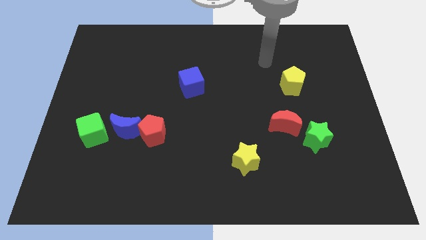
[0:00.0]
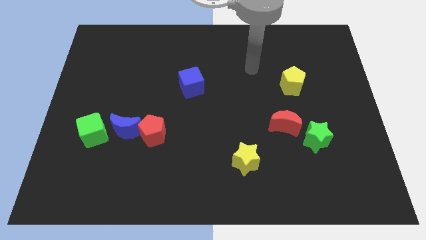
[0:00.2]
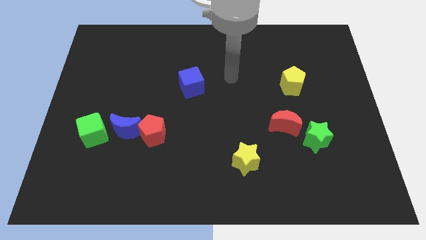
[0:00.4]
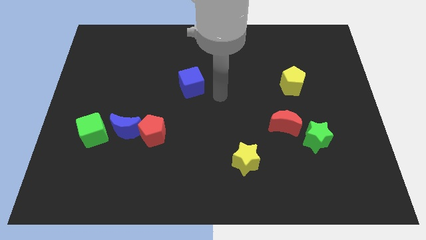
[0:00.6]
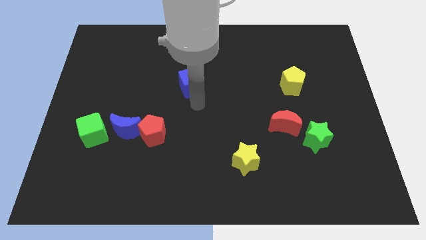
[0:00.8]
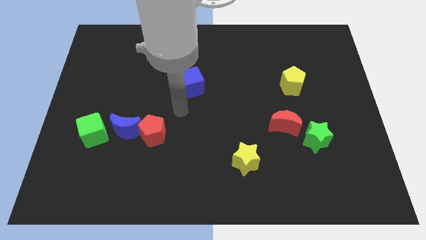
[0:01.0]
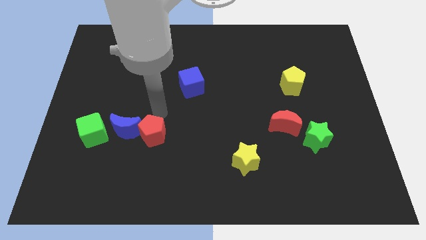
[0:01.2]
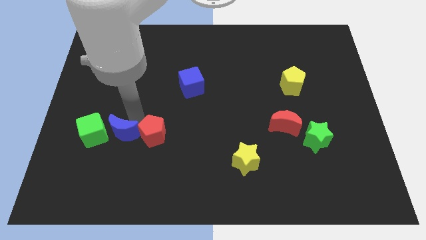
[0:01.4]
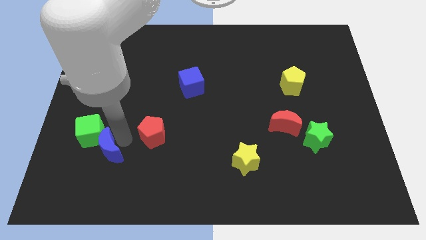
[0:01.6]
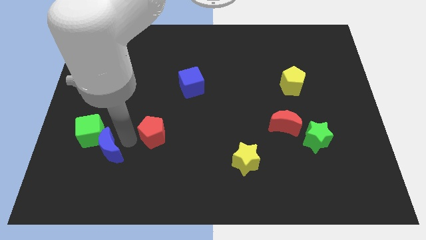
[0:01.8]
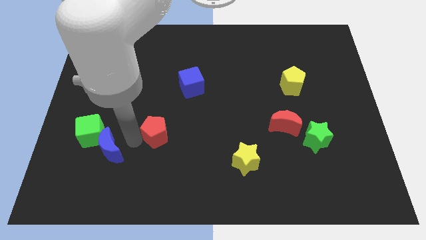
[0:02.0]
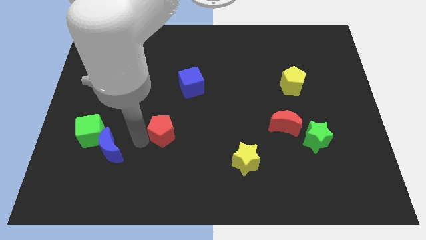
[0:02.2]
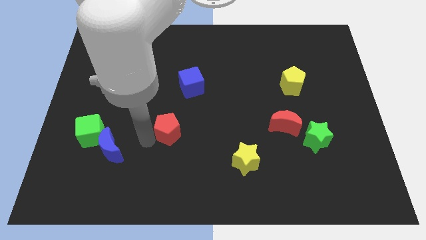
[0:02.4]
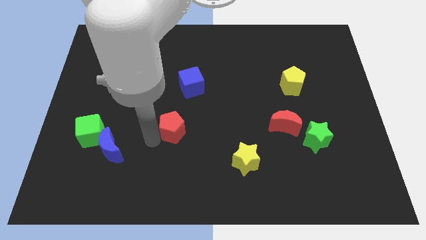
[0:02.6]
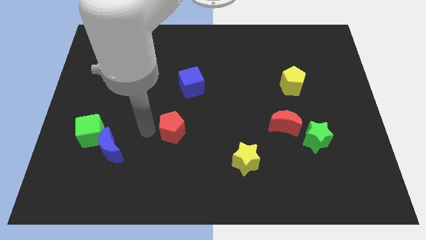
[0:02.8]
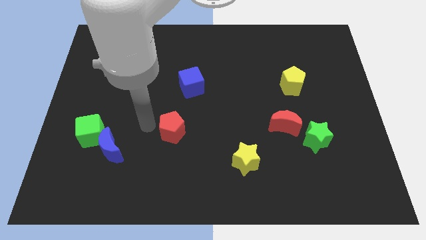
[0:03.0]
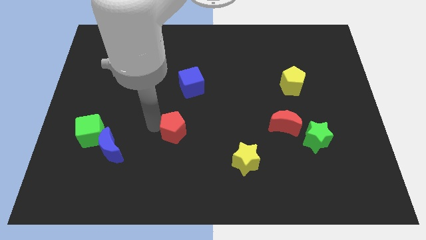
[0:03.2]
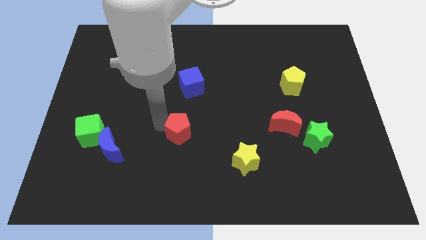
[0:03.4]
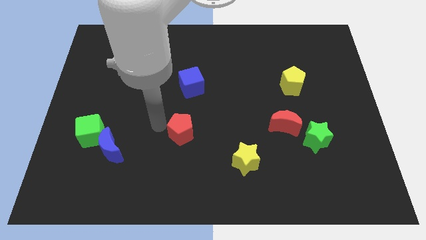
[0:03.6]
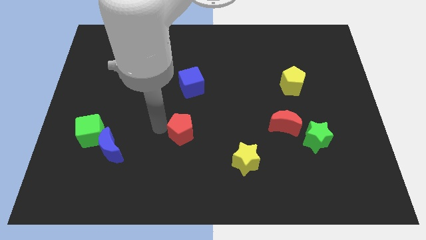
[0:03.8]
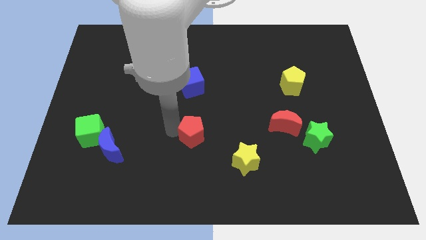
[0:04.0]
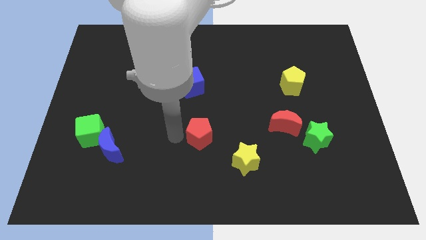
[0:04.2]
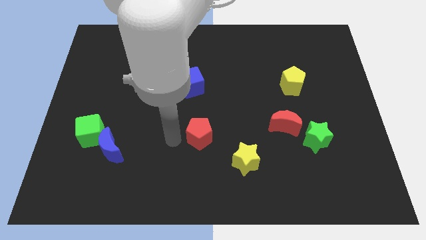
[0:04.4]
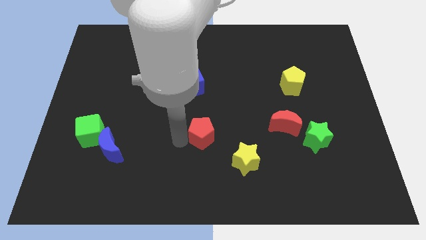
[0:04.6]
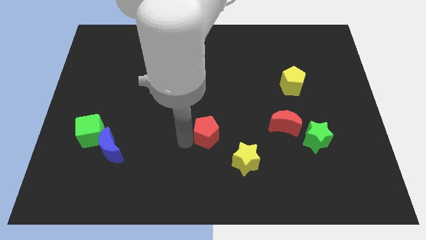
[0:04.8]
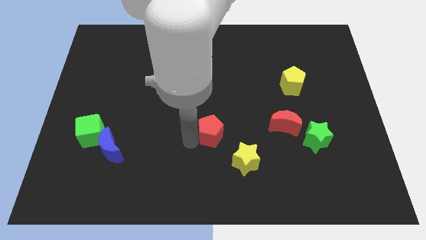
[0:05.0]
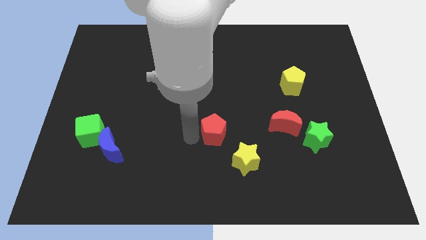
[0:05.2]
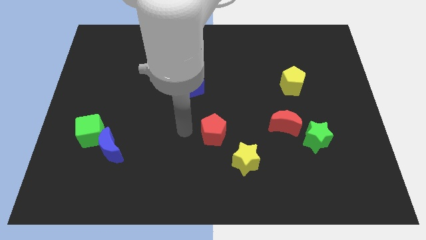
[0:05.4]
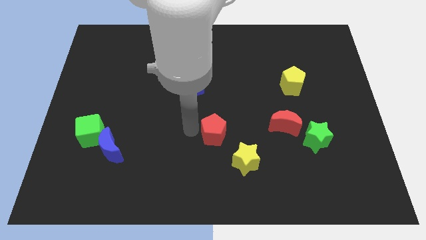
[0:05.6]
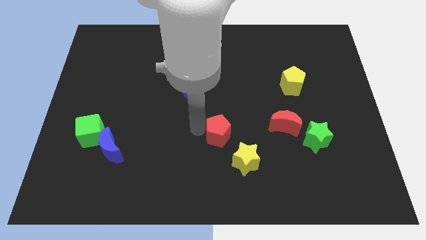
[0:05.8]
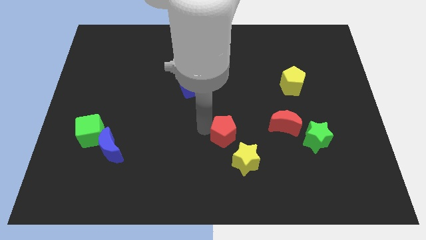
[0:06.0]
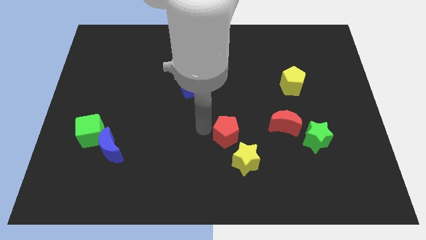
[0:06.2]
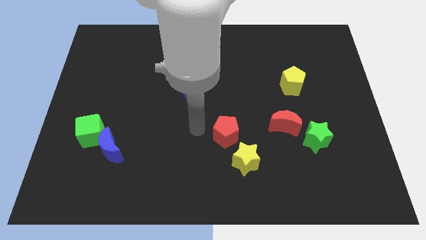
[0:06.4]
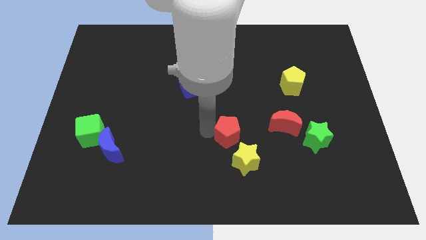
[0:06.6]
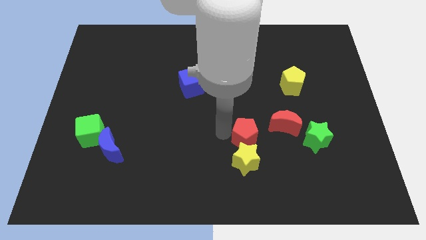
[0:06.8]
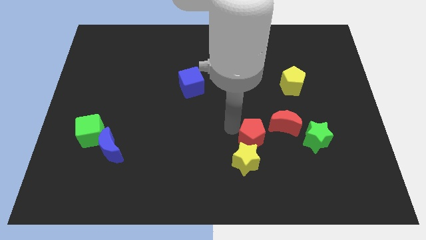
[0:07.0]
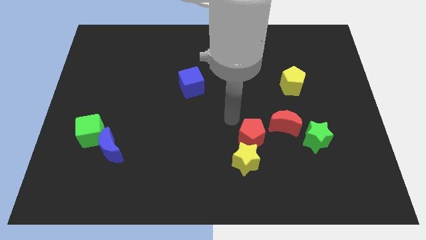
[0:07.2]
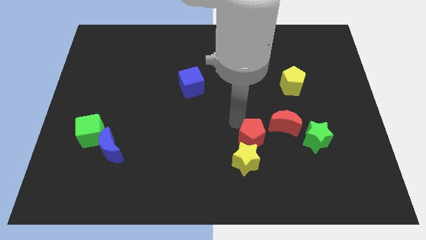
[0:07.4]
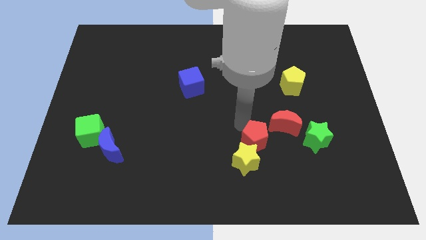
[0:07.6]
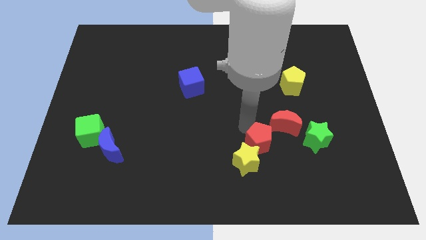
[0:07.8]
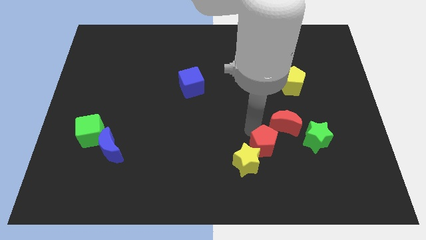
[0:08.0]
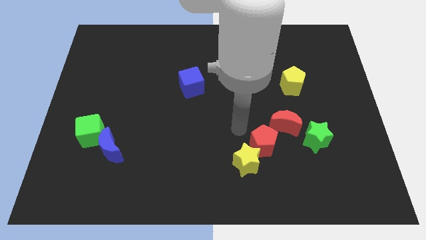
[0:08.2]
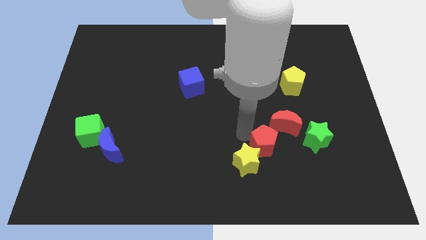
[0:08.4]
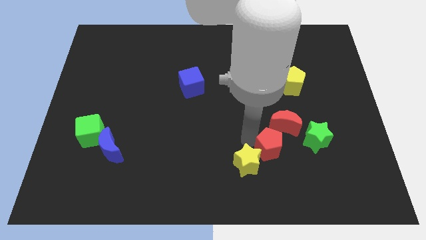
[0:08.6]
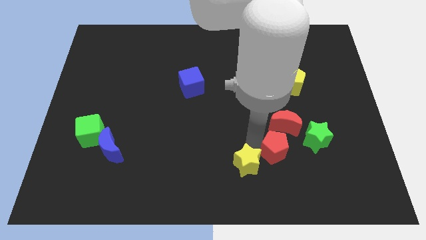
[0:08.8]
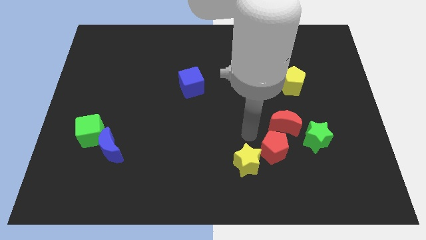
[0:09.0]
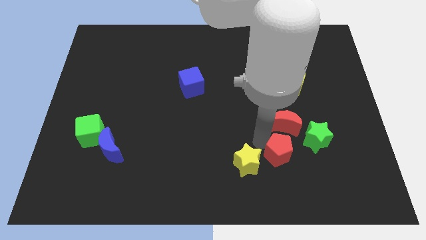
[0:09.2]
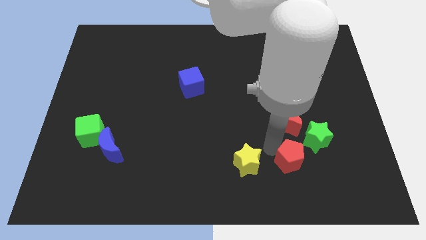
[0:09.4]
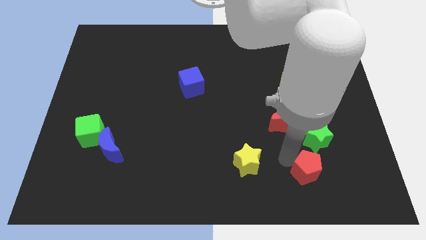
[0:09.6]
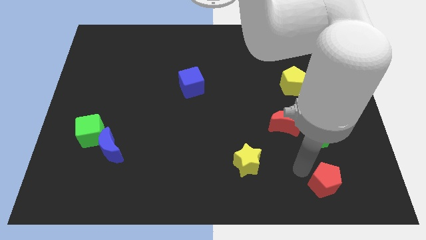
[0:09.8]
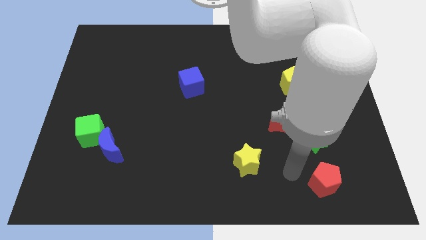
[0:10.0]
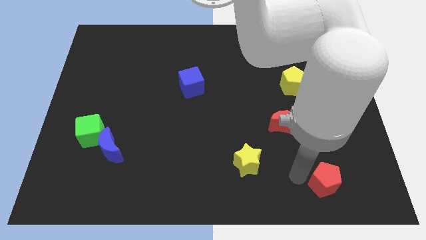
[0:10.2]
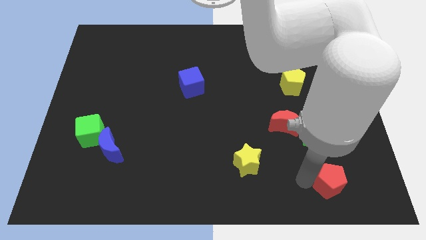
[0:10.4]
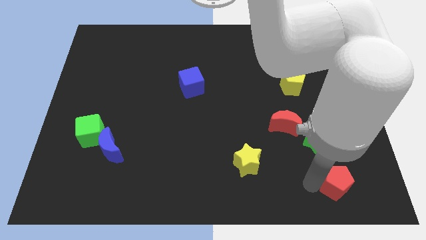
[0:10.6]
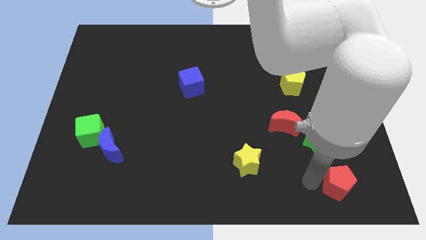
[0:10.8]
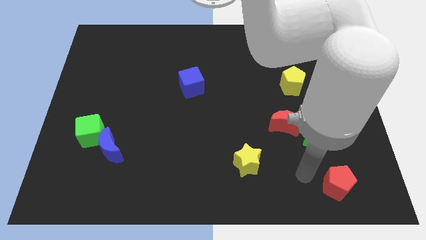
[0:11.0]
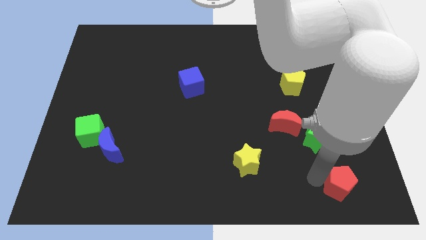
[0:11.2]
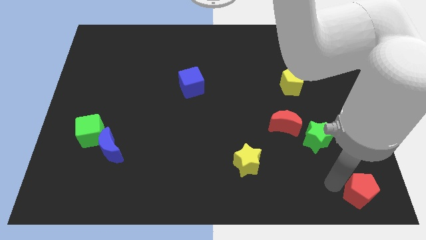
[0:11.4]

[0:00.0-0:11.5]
put the red pentagon to the bottom right
